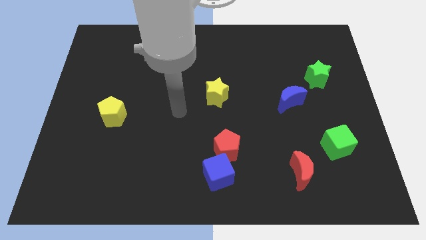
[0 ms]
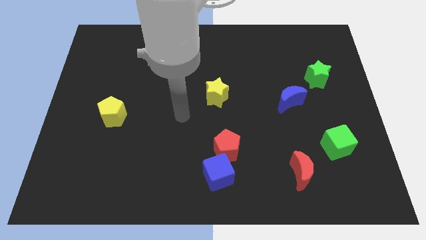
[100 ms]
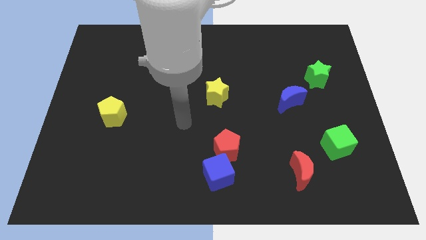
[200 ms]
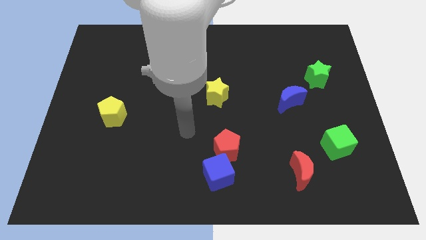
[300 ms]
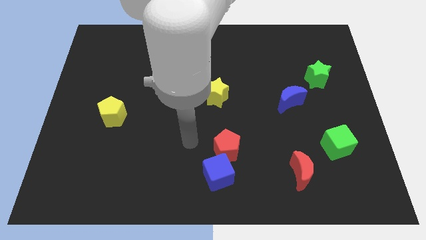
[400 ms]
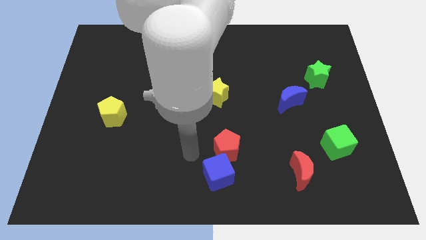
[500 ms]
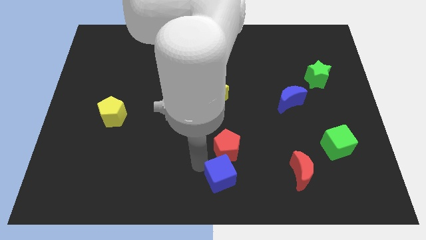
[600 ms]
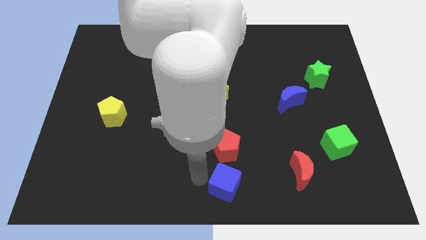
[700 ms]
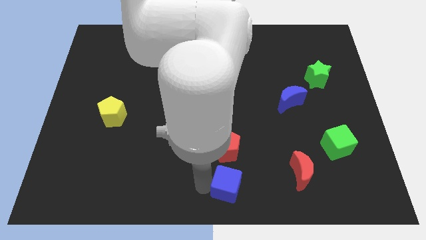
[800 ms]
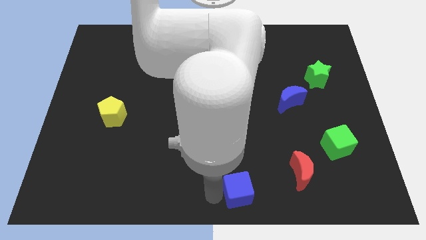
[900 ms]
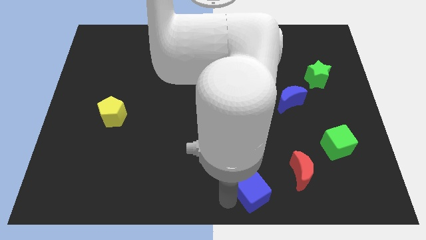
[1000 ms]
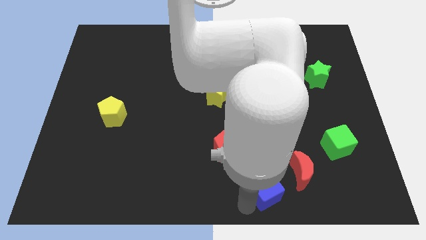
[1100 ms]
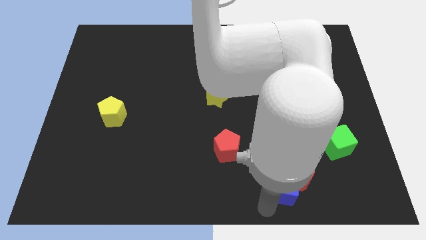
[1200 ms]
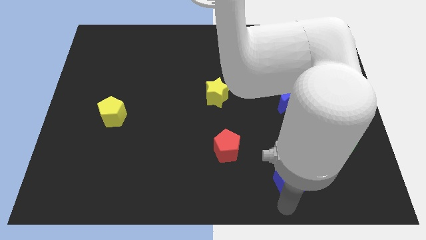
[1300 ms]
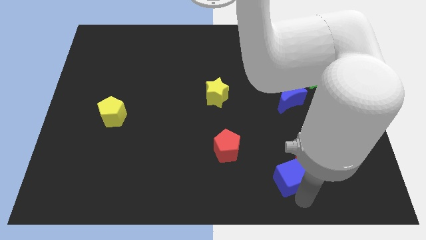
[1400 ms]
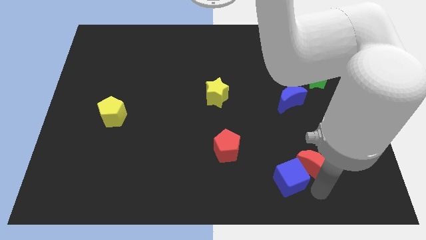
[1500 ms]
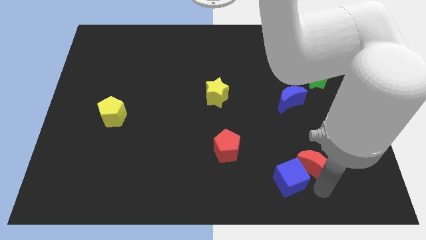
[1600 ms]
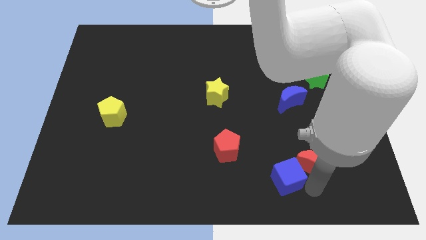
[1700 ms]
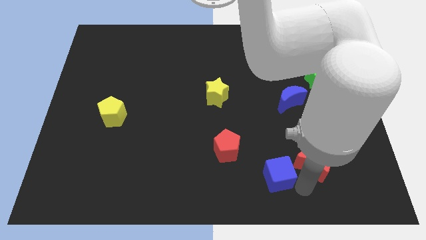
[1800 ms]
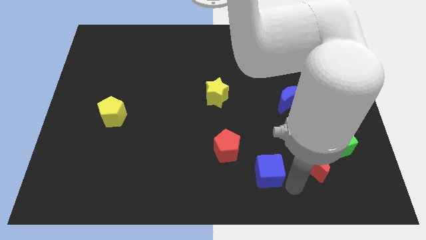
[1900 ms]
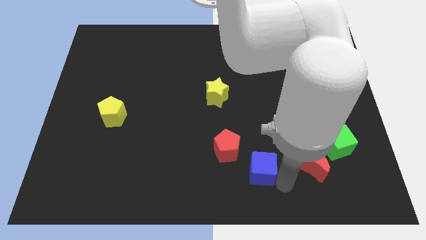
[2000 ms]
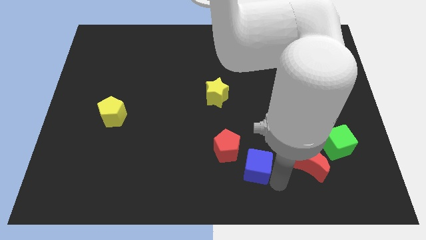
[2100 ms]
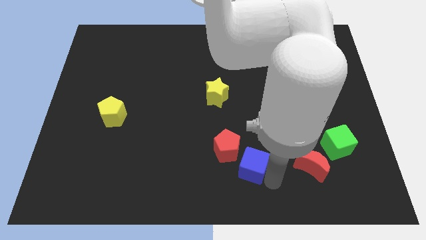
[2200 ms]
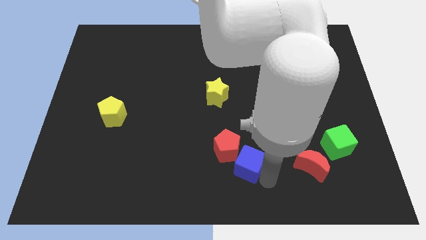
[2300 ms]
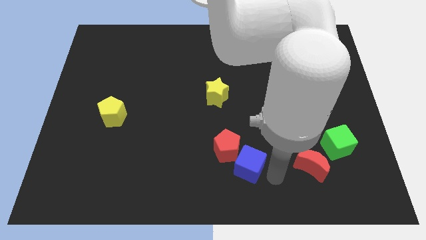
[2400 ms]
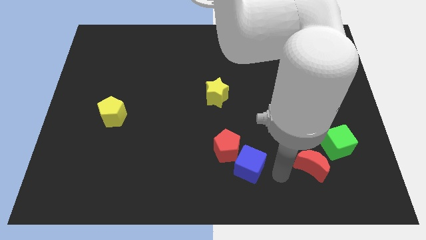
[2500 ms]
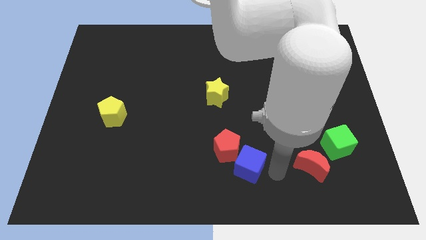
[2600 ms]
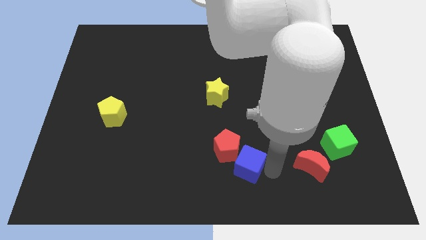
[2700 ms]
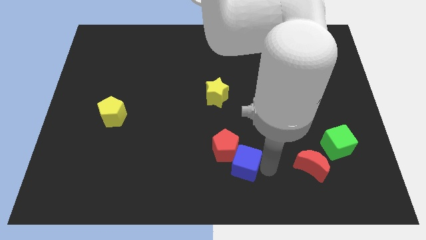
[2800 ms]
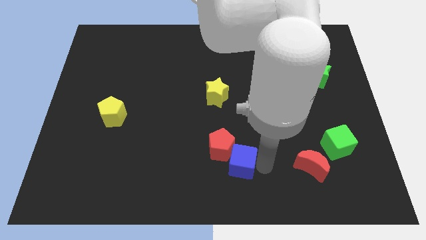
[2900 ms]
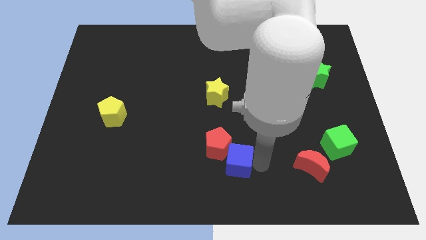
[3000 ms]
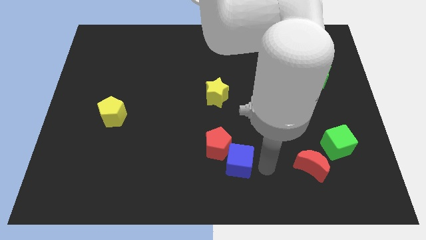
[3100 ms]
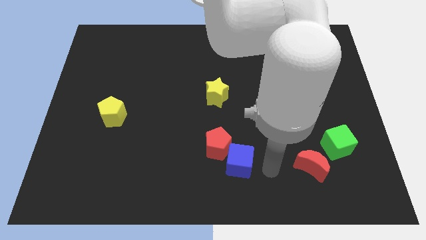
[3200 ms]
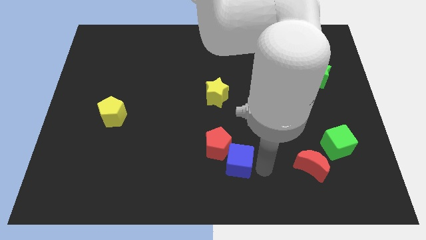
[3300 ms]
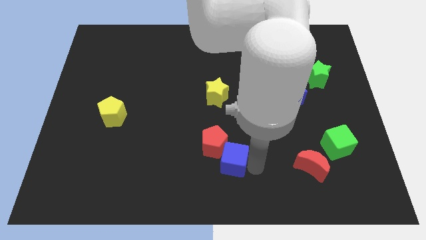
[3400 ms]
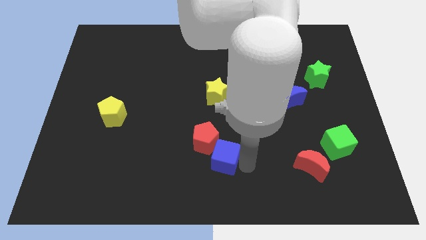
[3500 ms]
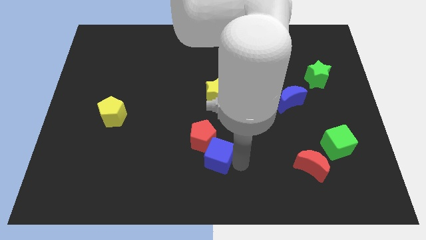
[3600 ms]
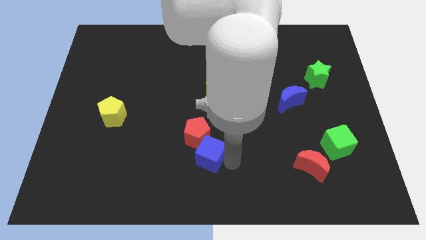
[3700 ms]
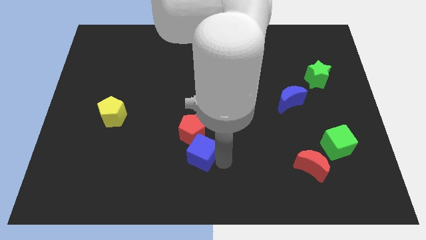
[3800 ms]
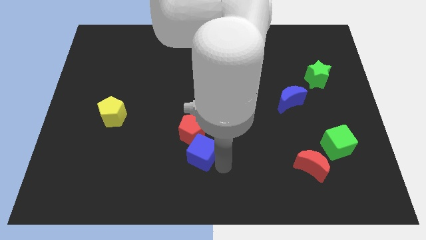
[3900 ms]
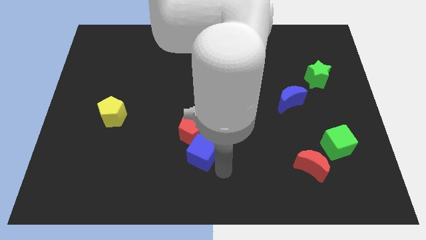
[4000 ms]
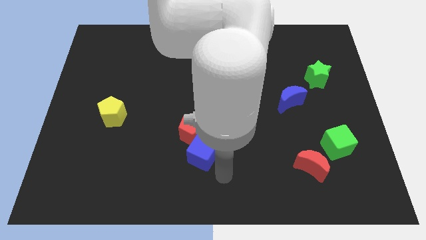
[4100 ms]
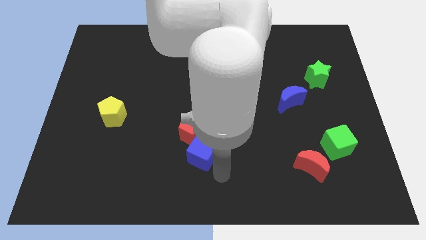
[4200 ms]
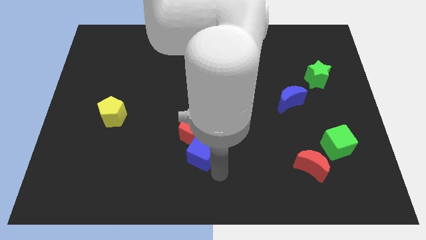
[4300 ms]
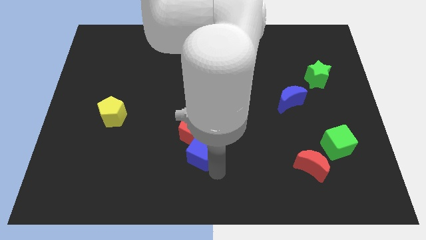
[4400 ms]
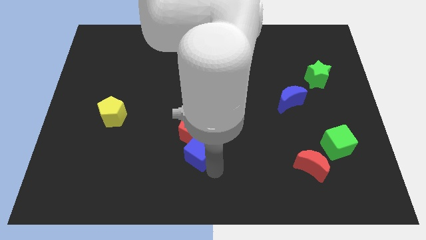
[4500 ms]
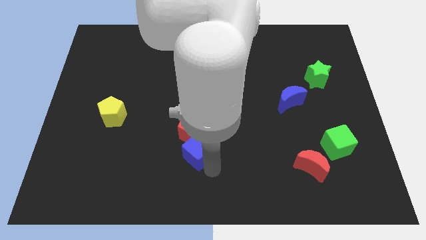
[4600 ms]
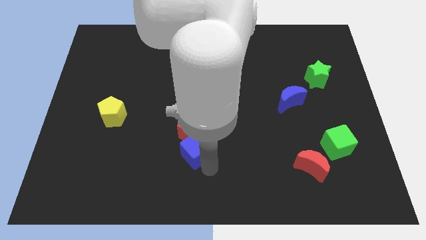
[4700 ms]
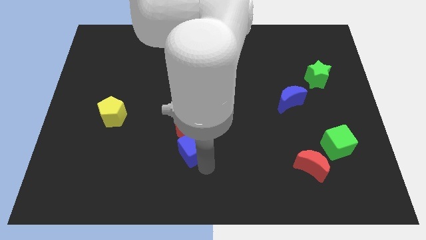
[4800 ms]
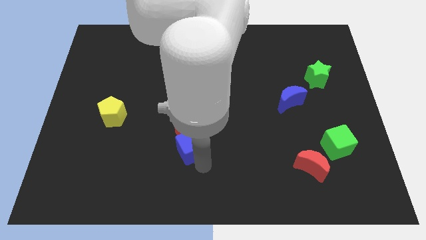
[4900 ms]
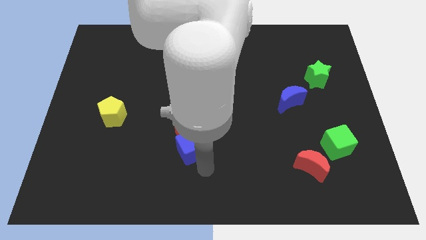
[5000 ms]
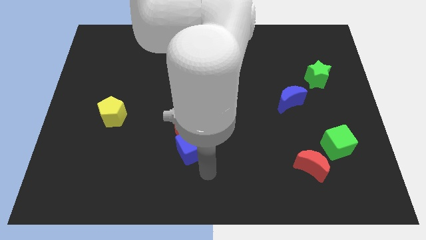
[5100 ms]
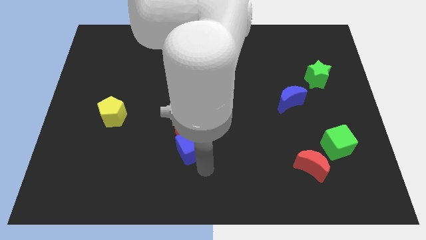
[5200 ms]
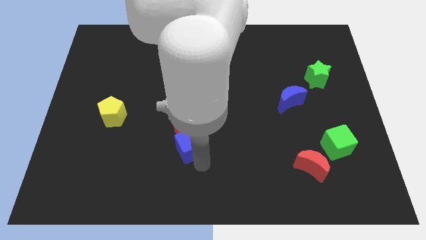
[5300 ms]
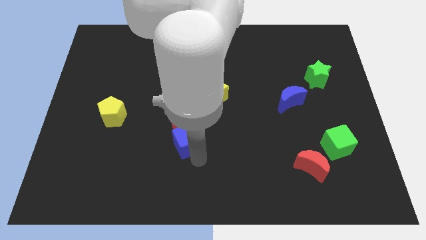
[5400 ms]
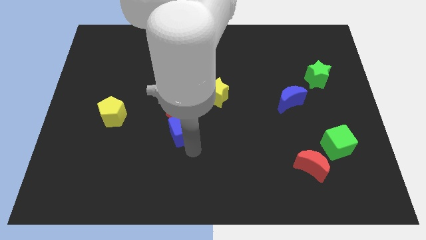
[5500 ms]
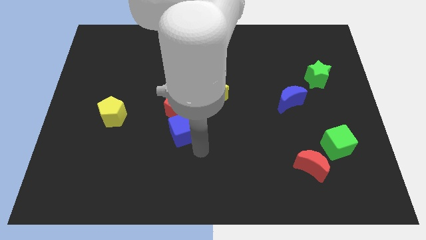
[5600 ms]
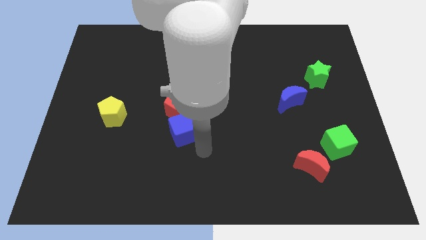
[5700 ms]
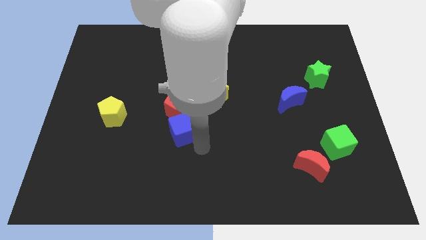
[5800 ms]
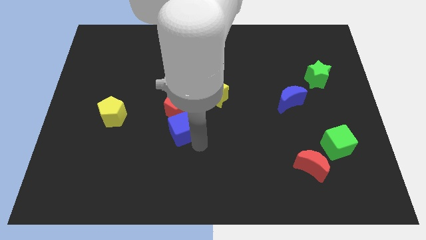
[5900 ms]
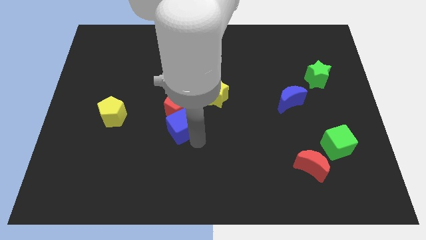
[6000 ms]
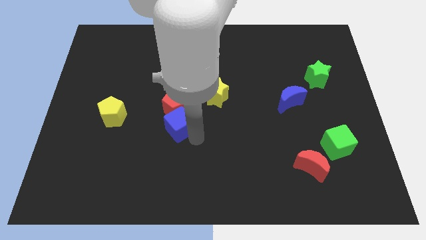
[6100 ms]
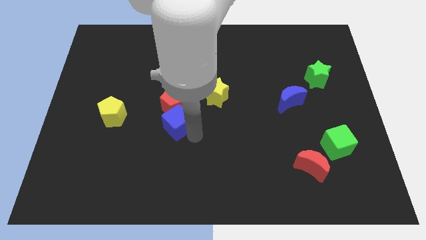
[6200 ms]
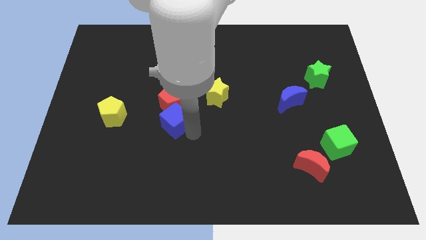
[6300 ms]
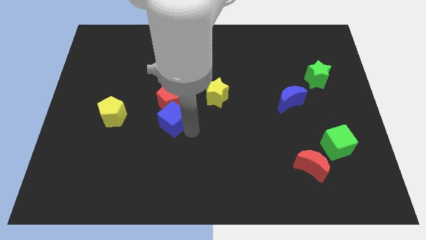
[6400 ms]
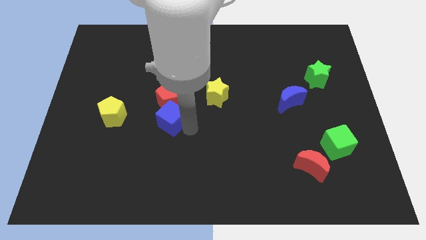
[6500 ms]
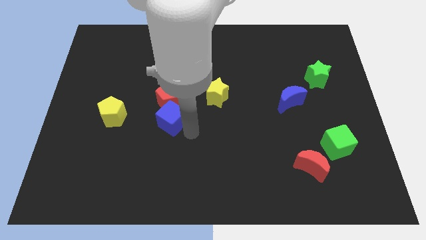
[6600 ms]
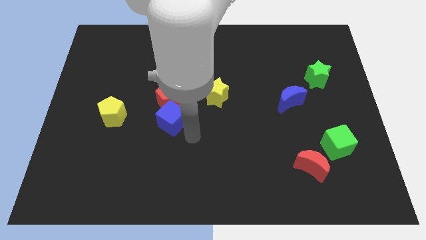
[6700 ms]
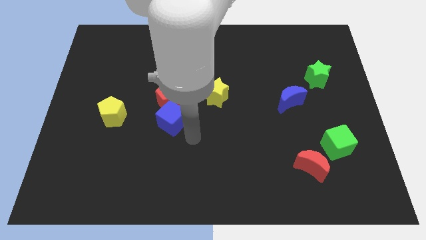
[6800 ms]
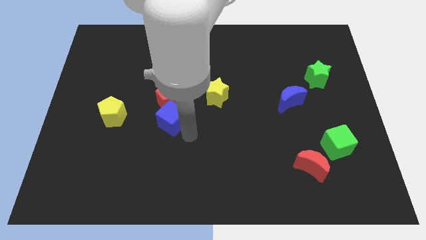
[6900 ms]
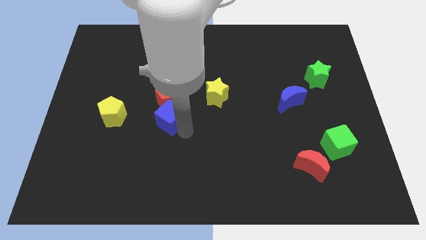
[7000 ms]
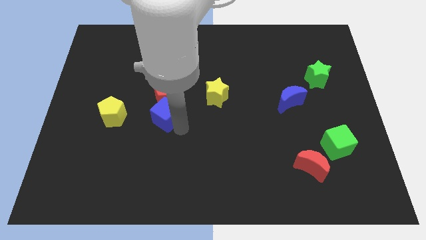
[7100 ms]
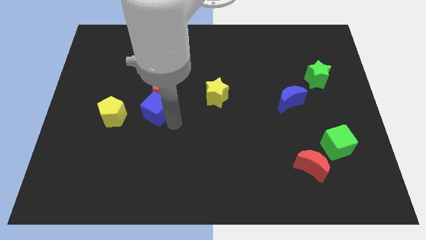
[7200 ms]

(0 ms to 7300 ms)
slide the blue cube up and then to the left

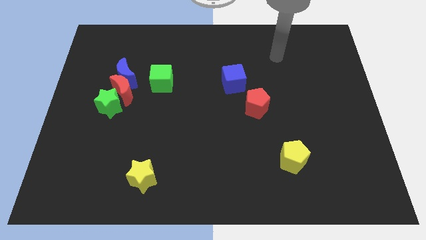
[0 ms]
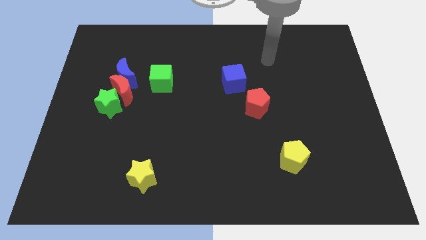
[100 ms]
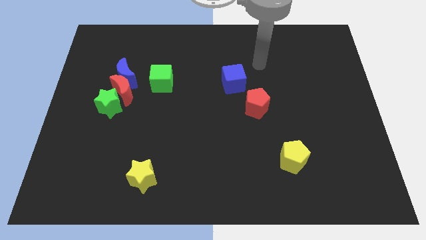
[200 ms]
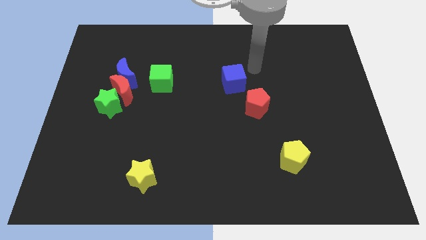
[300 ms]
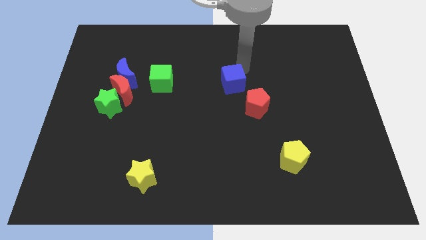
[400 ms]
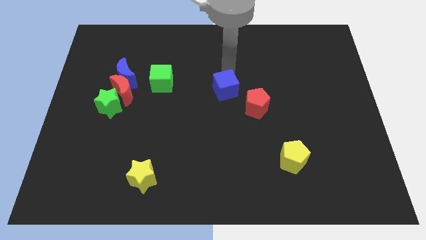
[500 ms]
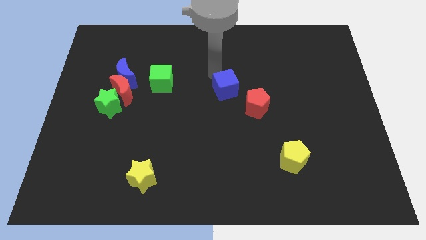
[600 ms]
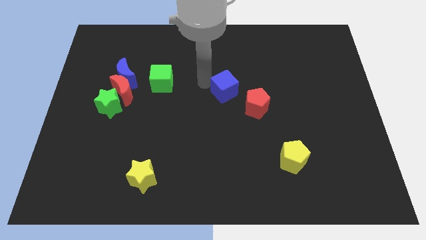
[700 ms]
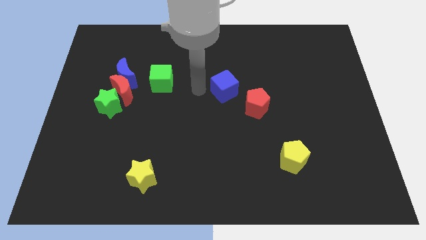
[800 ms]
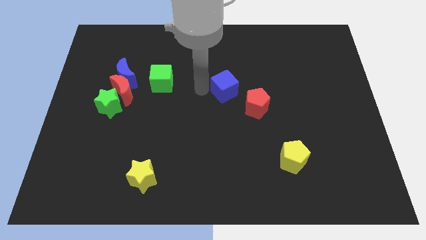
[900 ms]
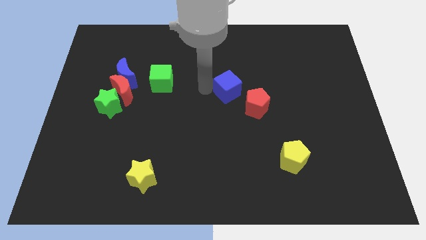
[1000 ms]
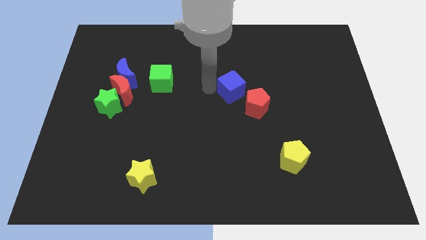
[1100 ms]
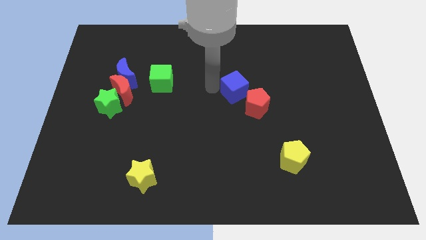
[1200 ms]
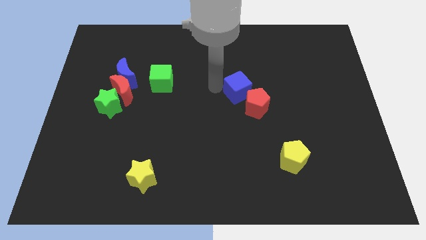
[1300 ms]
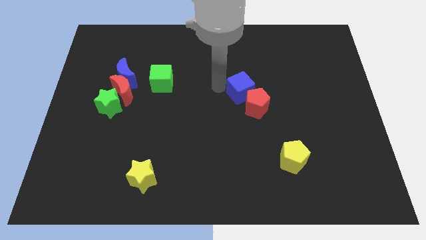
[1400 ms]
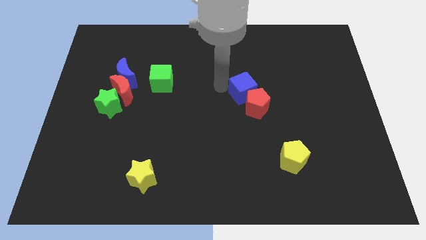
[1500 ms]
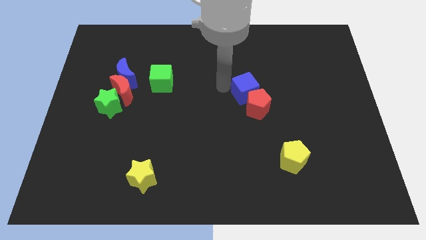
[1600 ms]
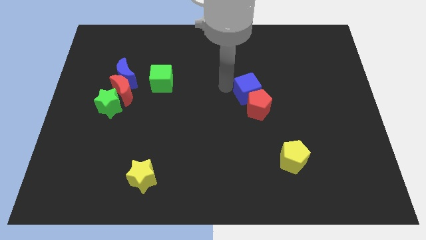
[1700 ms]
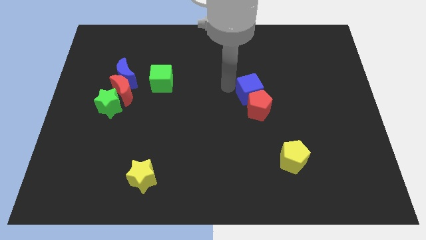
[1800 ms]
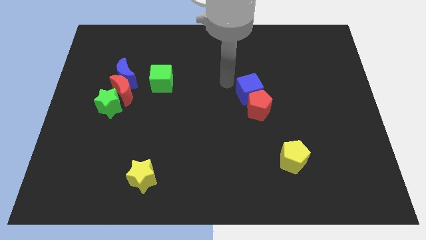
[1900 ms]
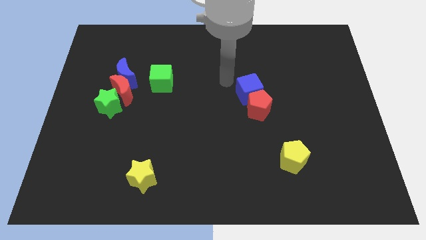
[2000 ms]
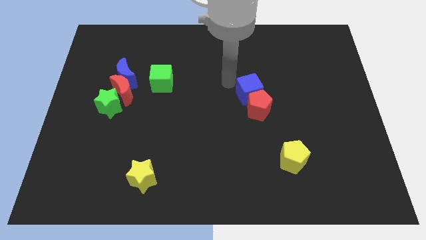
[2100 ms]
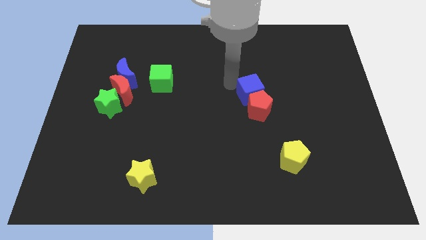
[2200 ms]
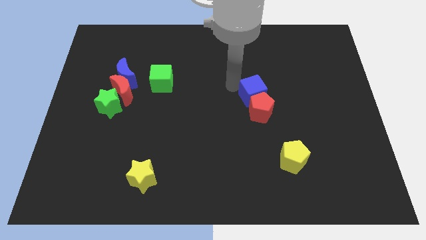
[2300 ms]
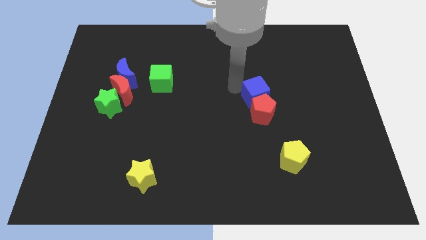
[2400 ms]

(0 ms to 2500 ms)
move the blue cube slightly downwards and to the right
